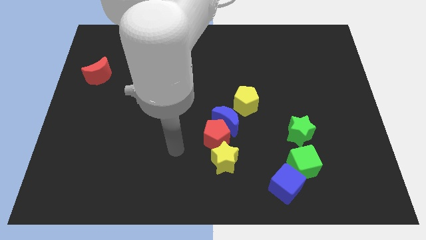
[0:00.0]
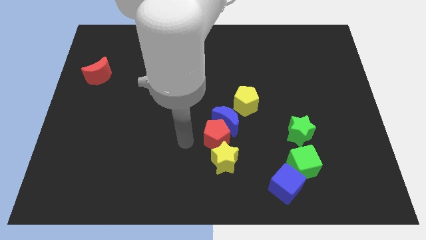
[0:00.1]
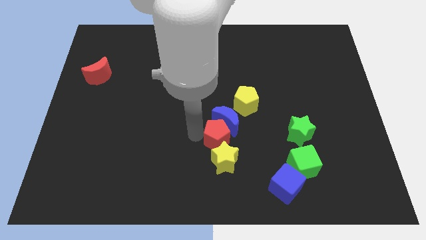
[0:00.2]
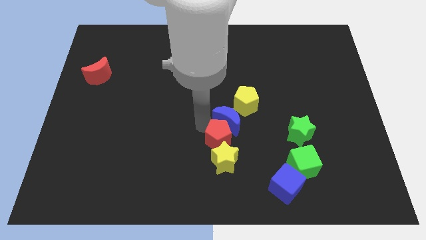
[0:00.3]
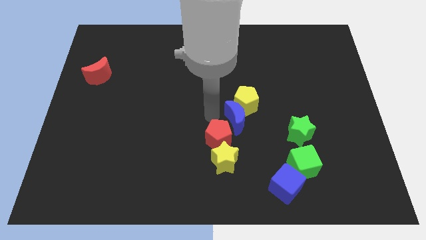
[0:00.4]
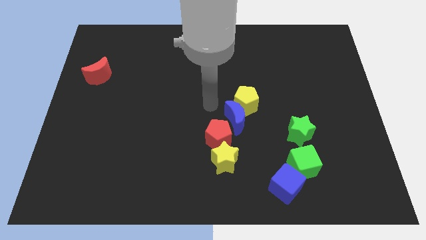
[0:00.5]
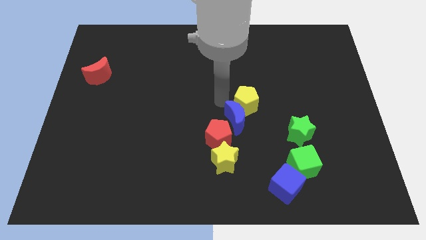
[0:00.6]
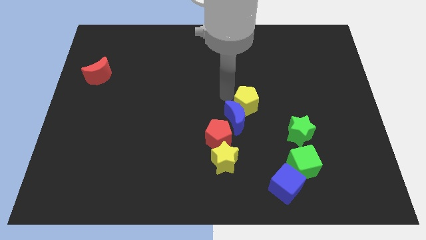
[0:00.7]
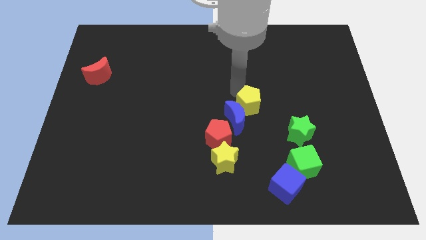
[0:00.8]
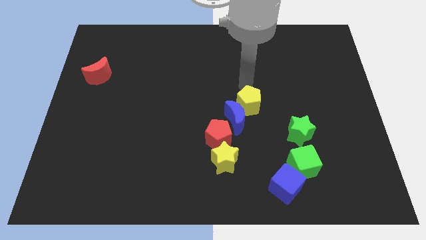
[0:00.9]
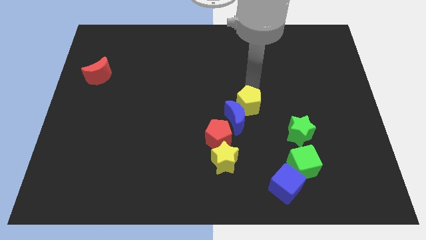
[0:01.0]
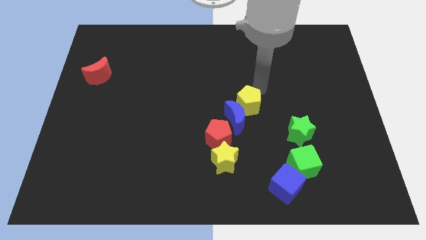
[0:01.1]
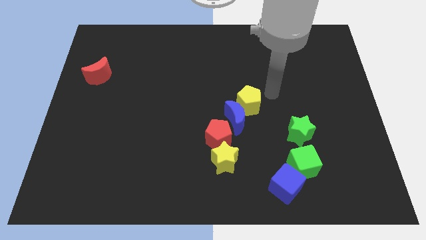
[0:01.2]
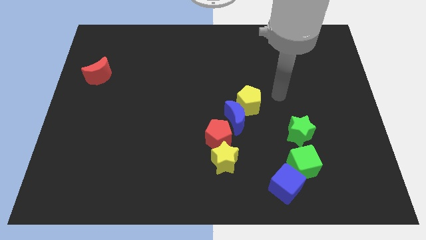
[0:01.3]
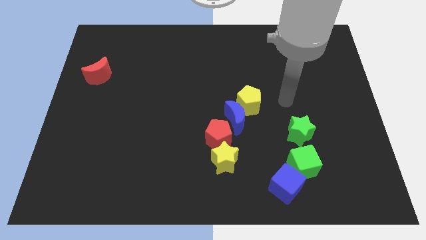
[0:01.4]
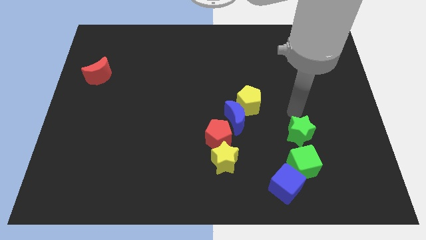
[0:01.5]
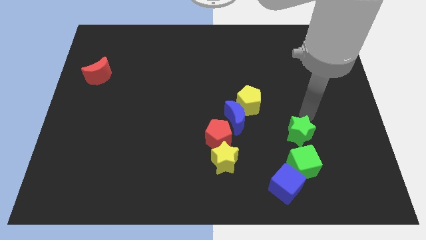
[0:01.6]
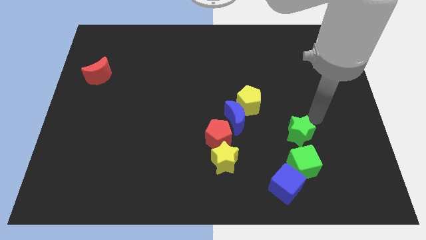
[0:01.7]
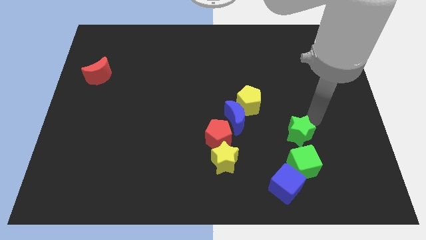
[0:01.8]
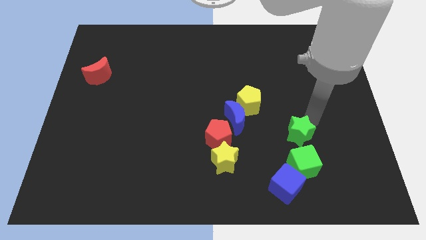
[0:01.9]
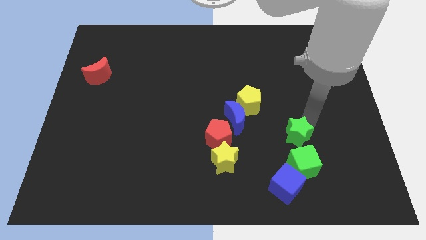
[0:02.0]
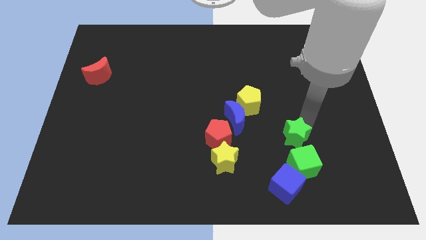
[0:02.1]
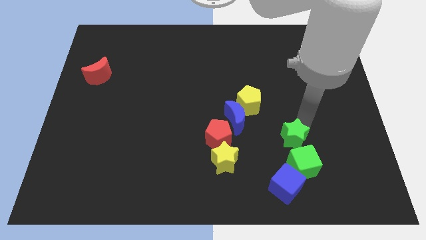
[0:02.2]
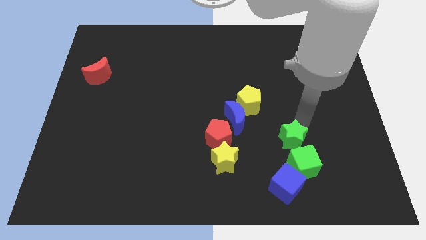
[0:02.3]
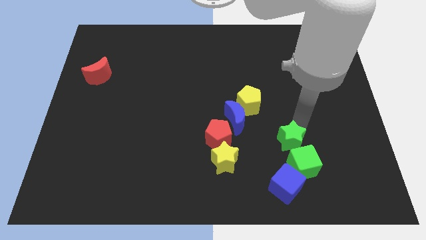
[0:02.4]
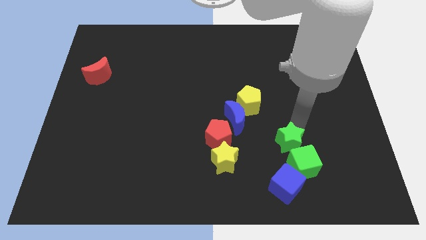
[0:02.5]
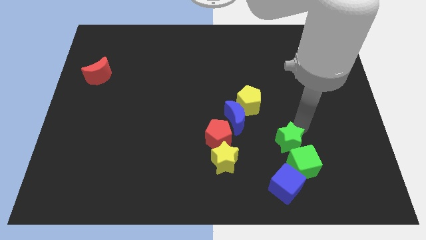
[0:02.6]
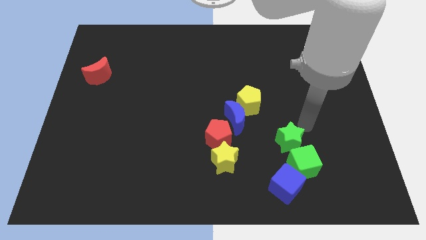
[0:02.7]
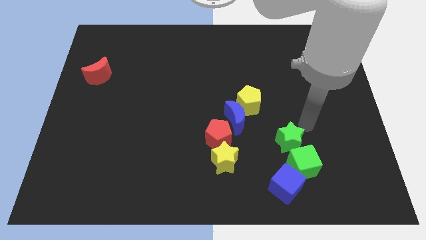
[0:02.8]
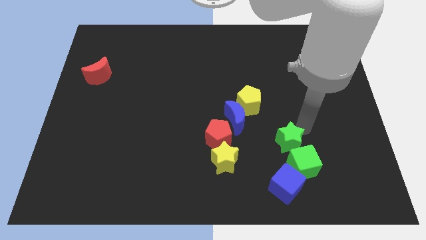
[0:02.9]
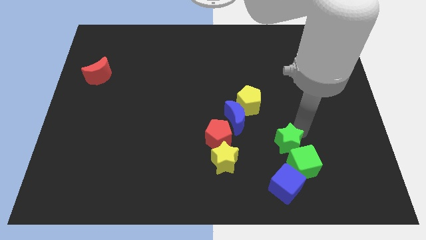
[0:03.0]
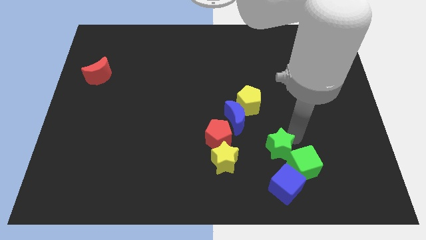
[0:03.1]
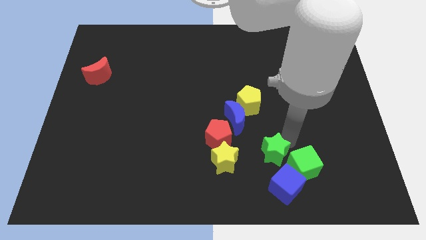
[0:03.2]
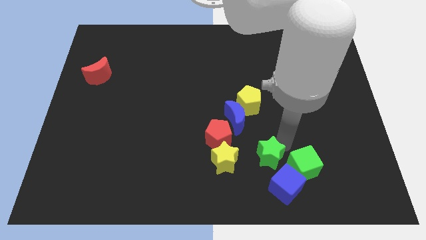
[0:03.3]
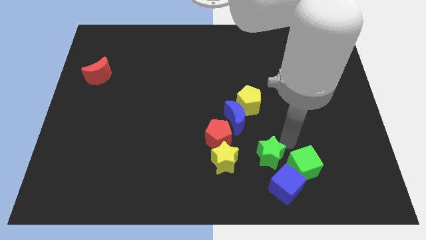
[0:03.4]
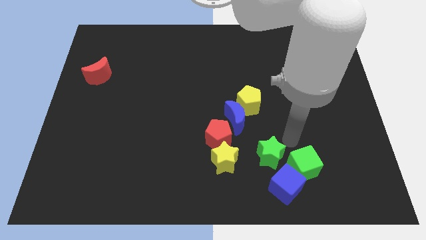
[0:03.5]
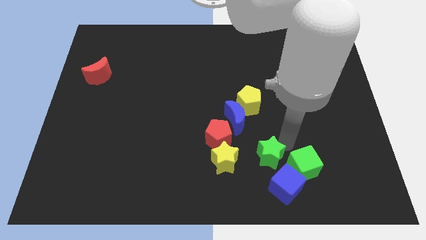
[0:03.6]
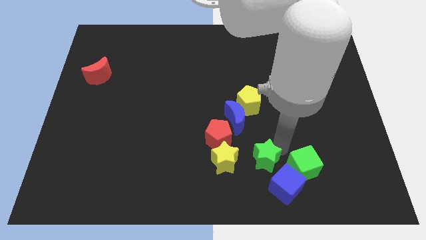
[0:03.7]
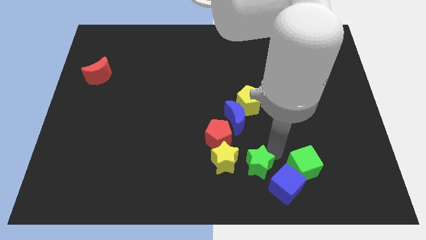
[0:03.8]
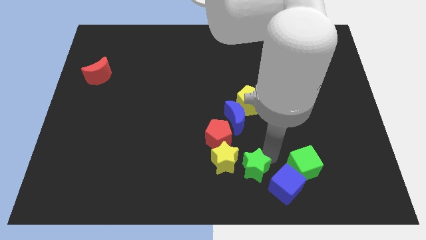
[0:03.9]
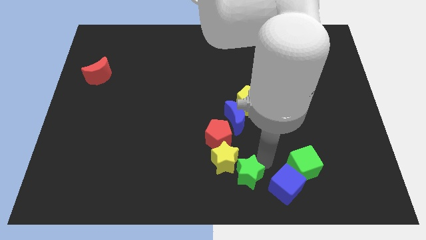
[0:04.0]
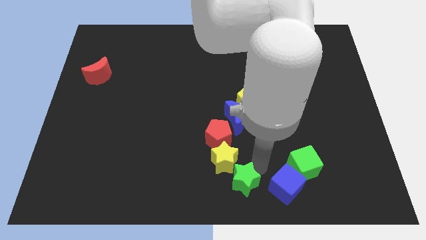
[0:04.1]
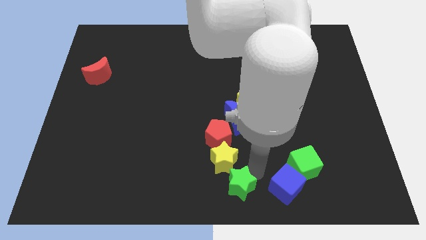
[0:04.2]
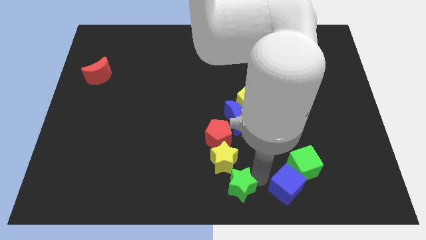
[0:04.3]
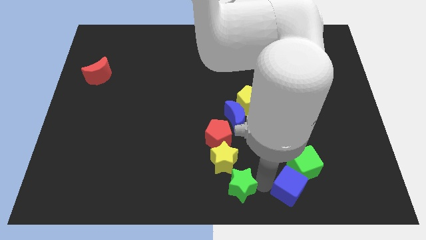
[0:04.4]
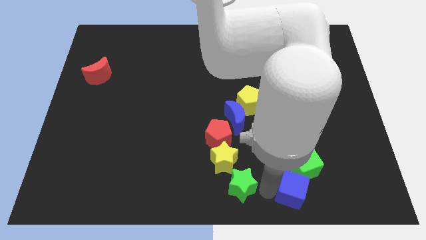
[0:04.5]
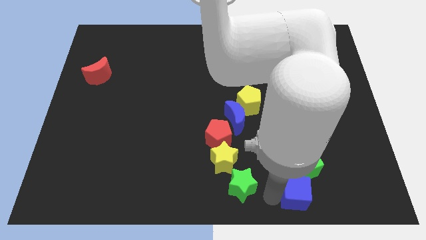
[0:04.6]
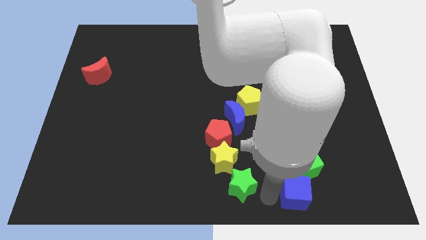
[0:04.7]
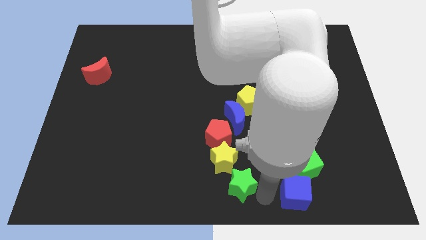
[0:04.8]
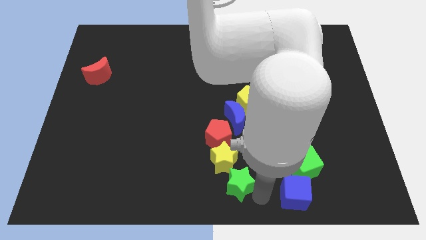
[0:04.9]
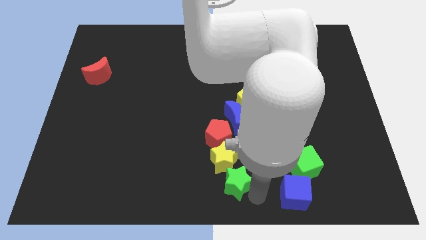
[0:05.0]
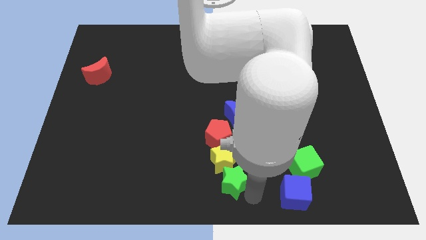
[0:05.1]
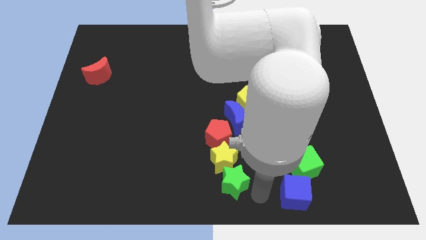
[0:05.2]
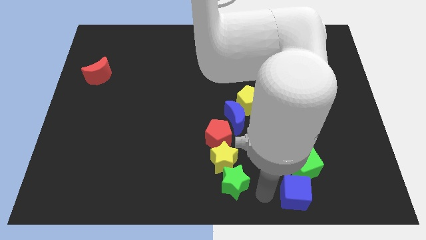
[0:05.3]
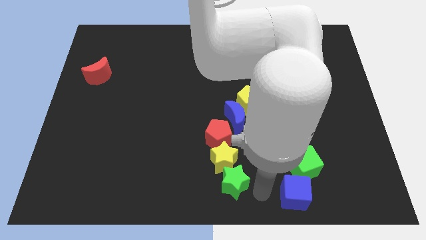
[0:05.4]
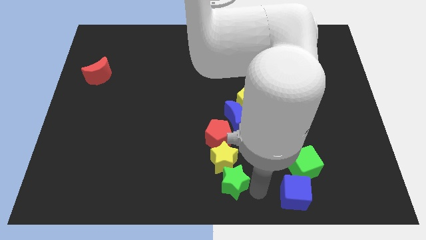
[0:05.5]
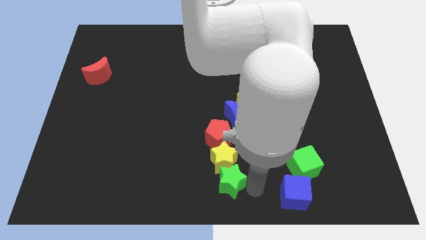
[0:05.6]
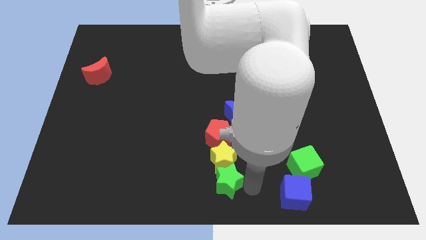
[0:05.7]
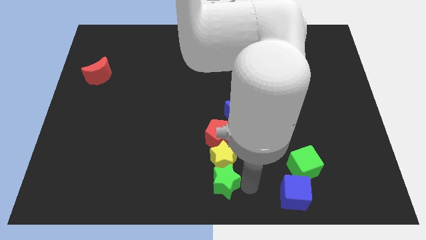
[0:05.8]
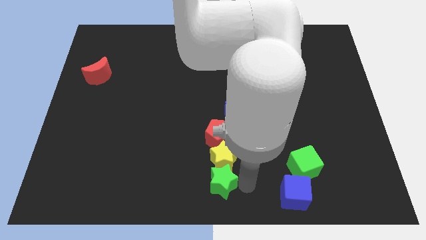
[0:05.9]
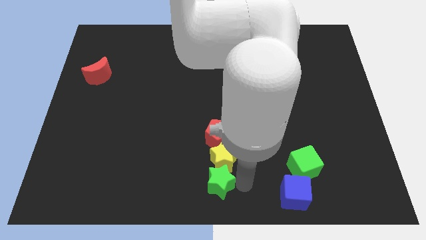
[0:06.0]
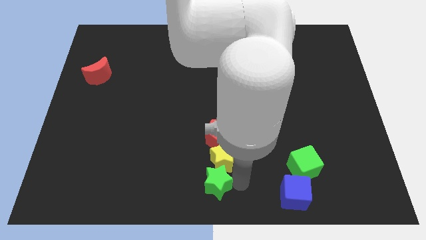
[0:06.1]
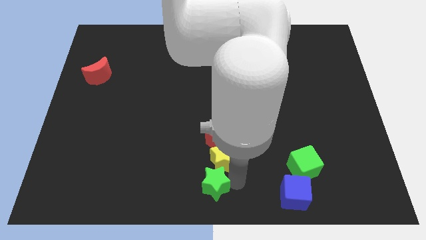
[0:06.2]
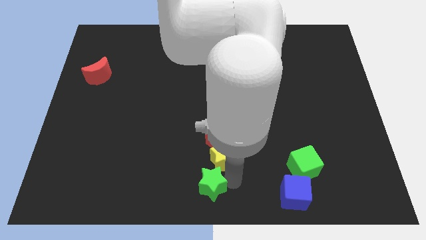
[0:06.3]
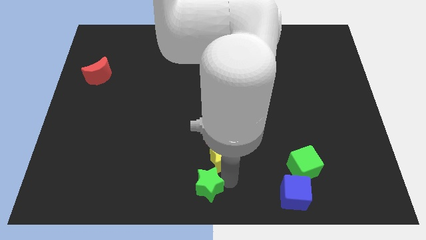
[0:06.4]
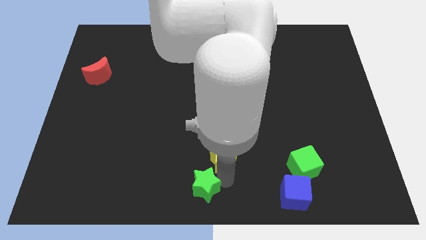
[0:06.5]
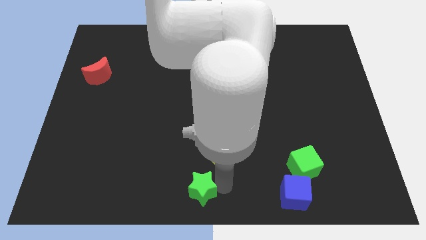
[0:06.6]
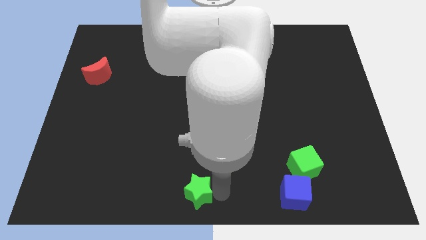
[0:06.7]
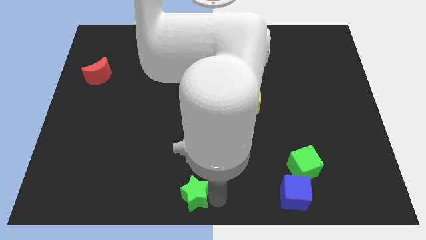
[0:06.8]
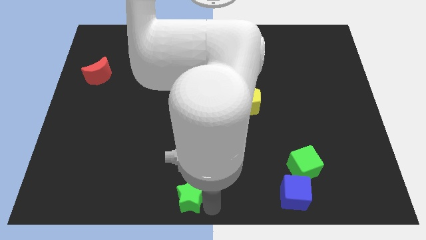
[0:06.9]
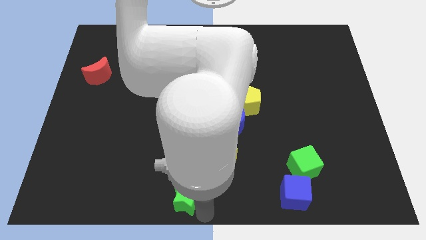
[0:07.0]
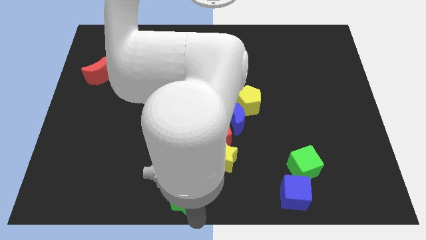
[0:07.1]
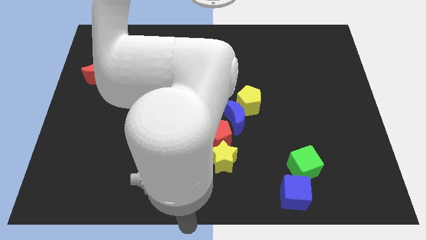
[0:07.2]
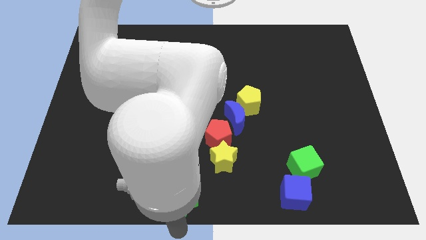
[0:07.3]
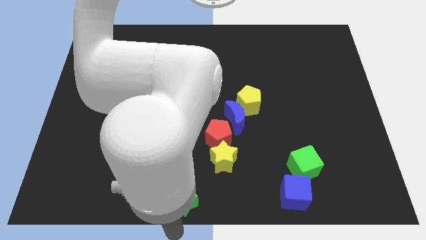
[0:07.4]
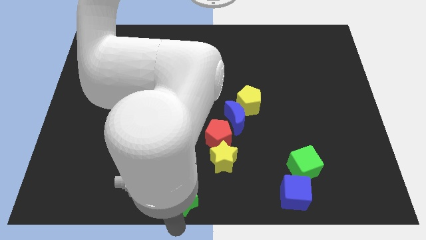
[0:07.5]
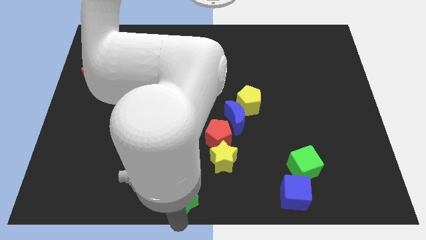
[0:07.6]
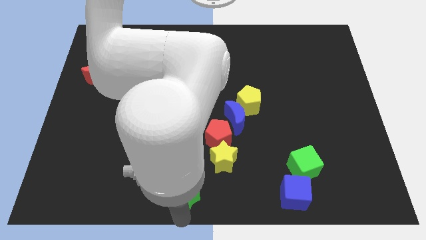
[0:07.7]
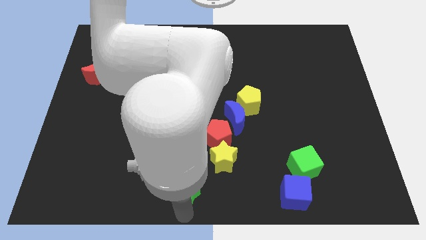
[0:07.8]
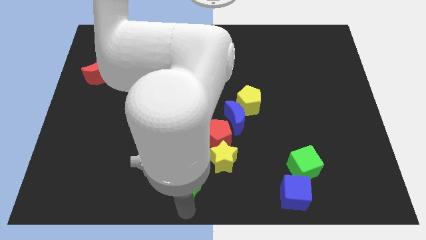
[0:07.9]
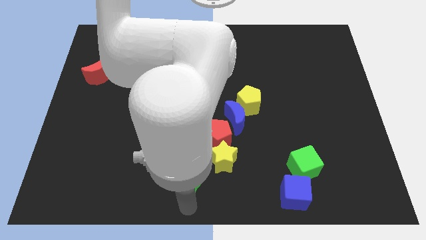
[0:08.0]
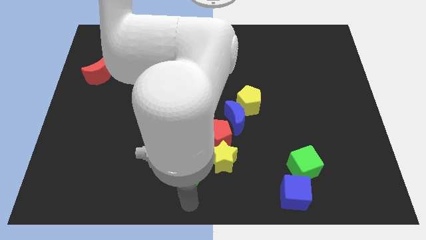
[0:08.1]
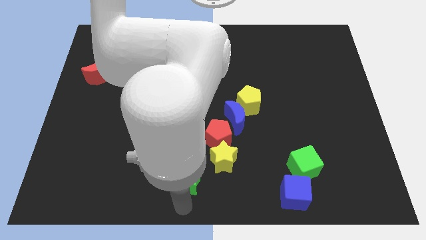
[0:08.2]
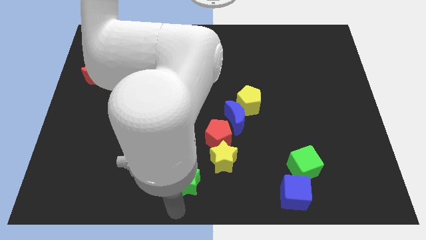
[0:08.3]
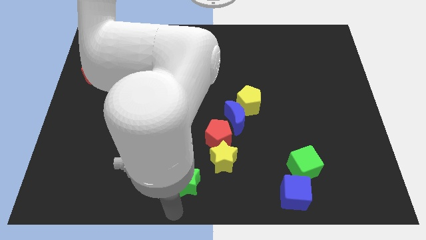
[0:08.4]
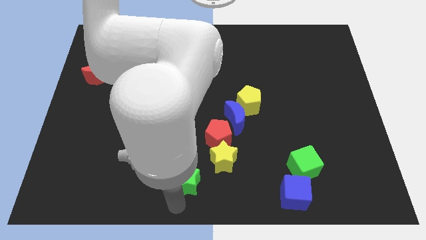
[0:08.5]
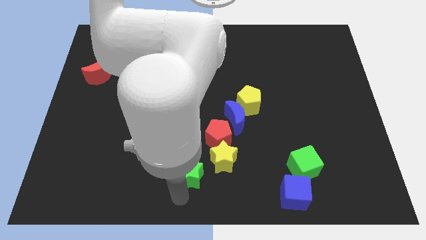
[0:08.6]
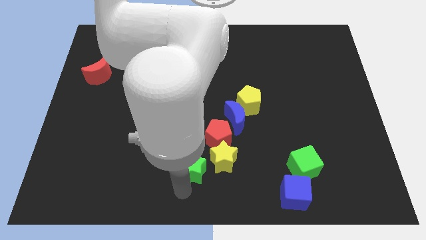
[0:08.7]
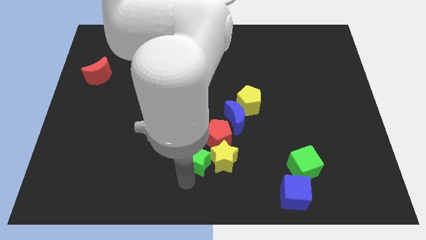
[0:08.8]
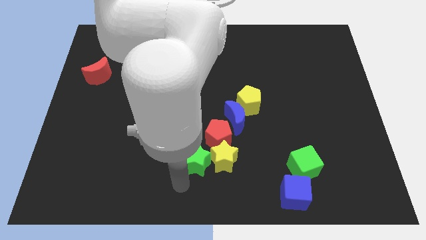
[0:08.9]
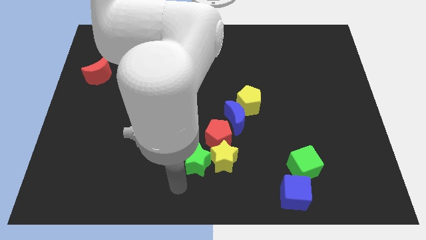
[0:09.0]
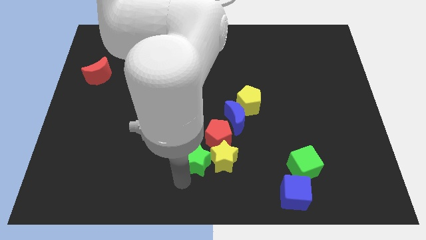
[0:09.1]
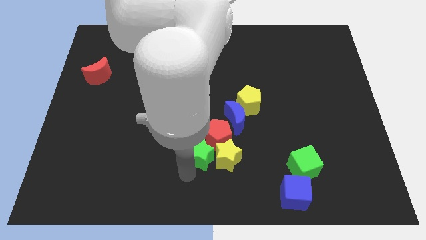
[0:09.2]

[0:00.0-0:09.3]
push the green star to the bottom left of the blue moon
